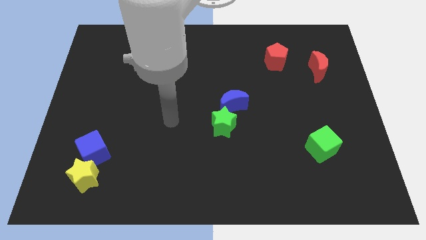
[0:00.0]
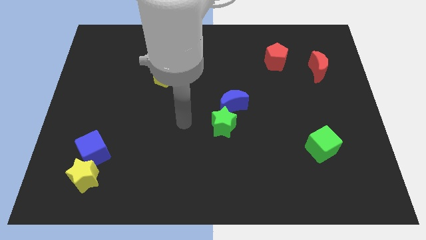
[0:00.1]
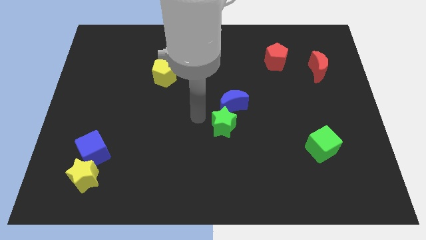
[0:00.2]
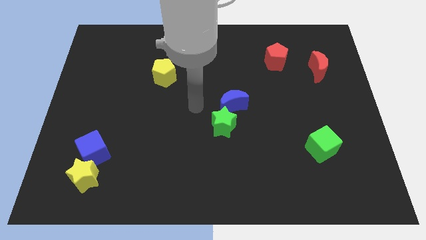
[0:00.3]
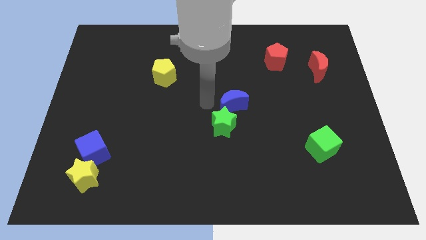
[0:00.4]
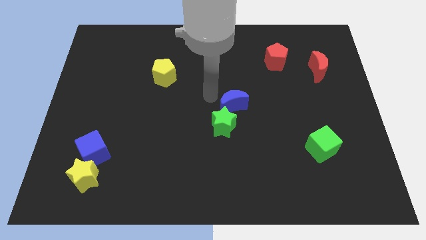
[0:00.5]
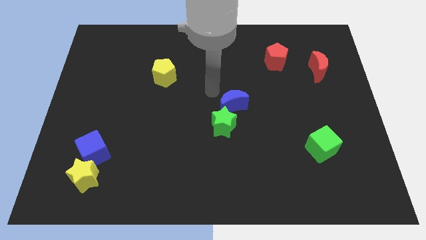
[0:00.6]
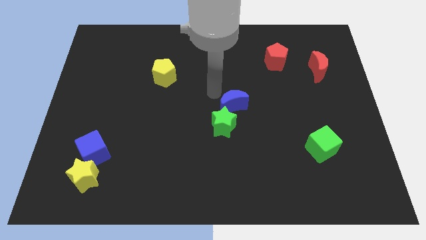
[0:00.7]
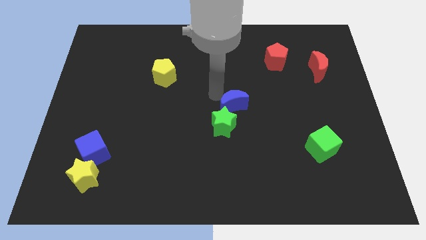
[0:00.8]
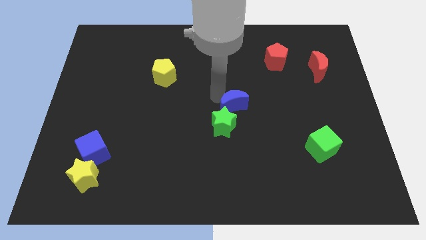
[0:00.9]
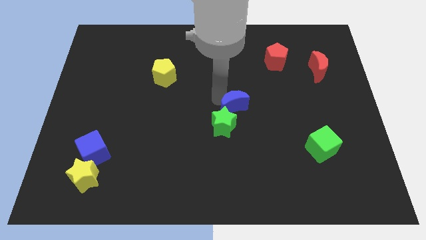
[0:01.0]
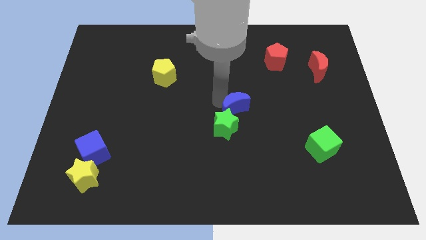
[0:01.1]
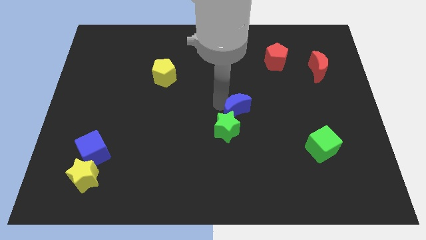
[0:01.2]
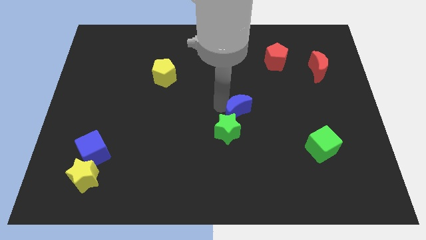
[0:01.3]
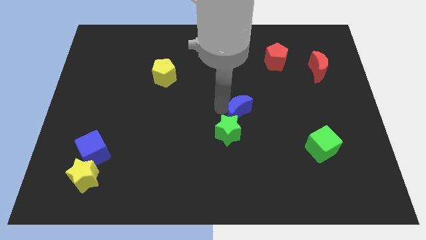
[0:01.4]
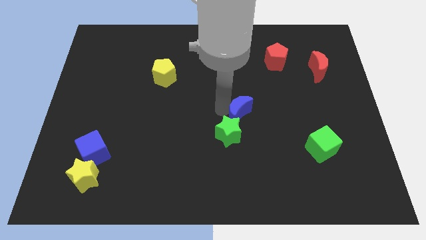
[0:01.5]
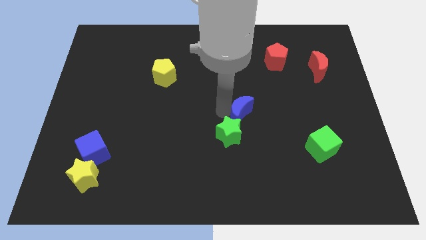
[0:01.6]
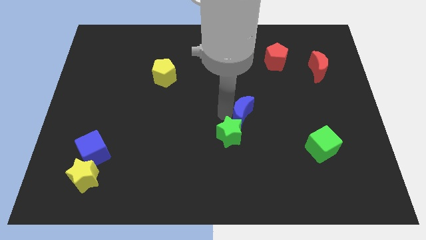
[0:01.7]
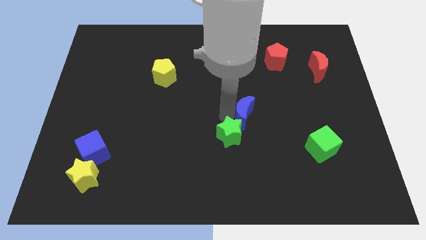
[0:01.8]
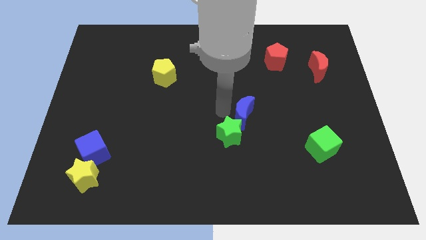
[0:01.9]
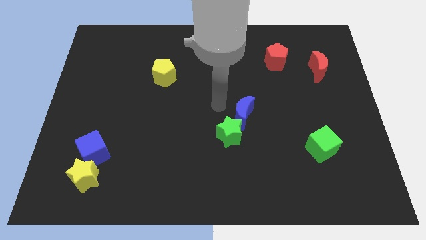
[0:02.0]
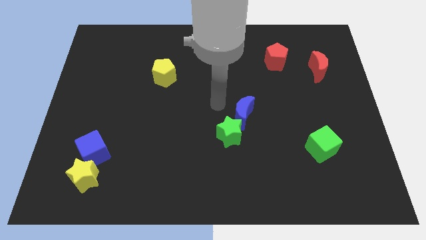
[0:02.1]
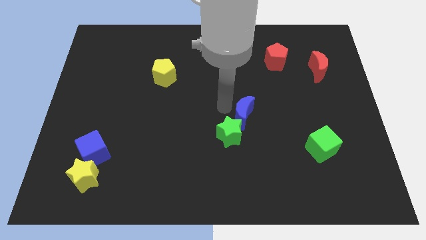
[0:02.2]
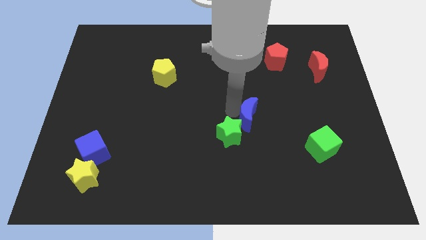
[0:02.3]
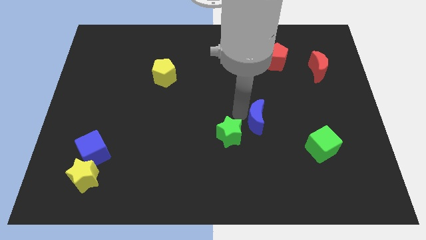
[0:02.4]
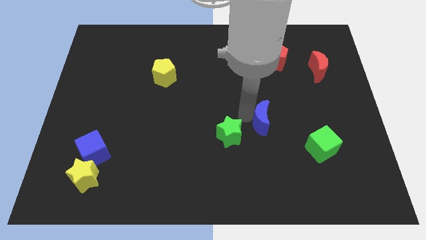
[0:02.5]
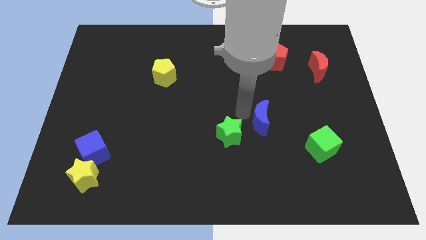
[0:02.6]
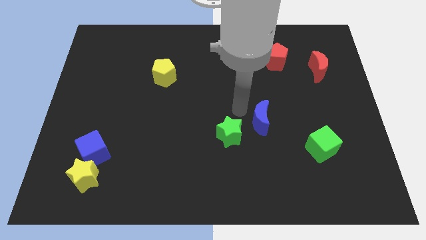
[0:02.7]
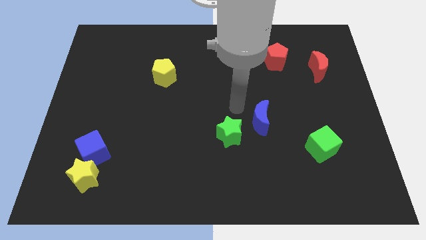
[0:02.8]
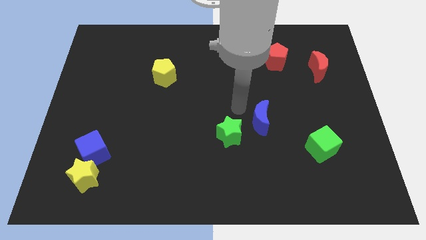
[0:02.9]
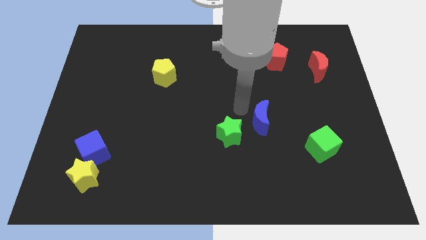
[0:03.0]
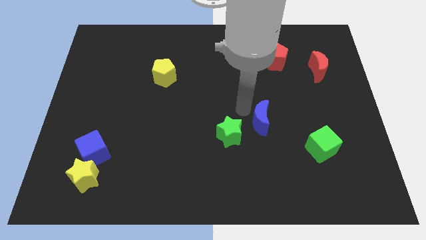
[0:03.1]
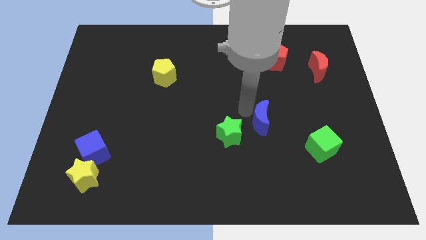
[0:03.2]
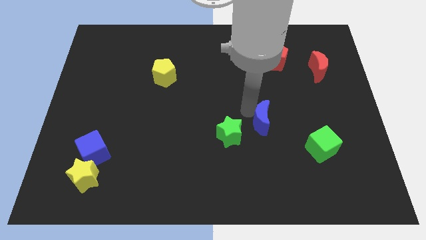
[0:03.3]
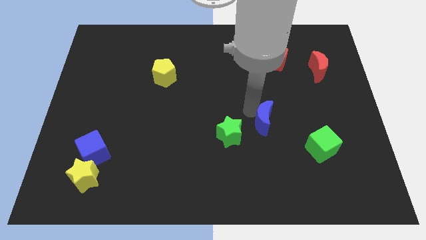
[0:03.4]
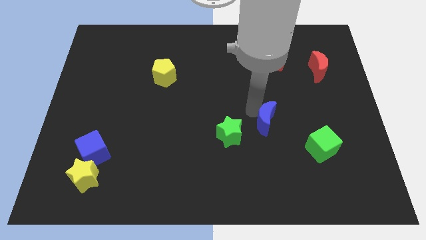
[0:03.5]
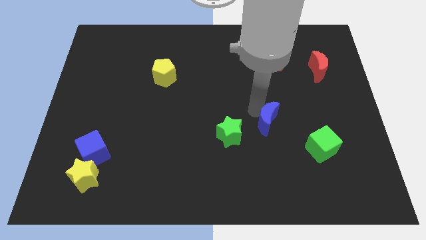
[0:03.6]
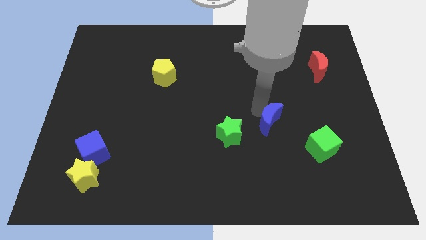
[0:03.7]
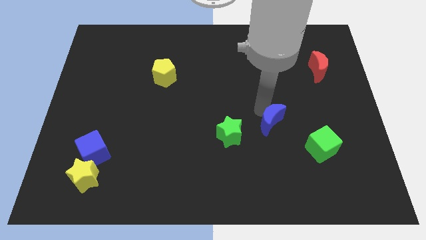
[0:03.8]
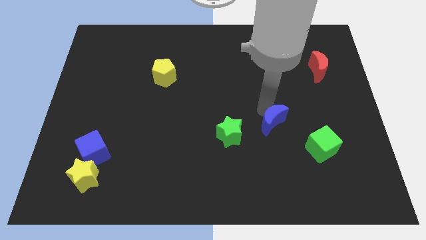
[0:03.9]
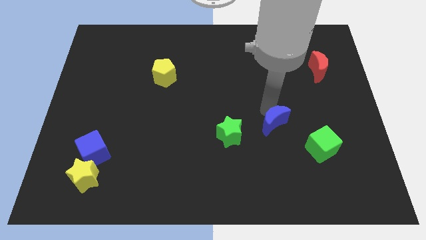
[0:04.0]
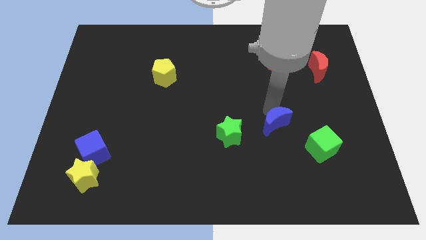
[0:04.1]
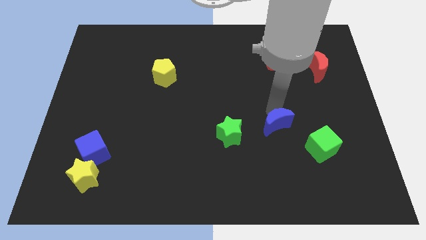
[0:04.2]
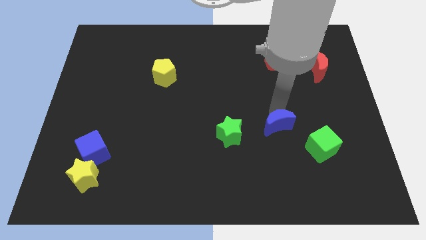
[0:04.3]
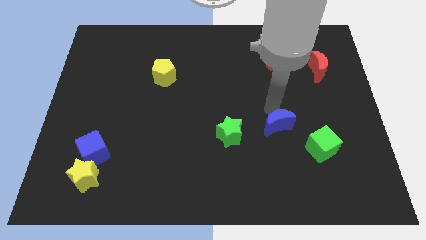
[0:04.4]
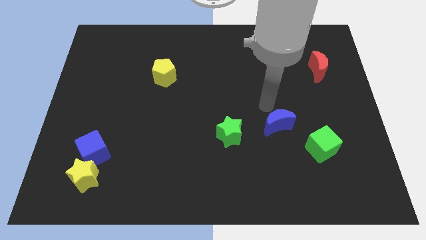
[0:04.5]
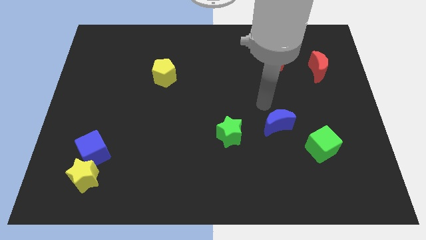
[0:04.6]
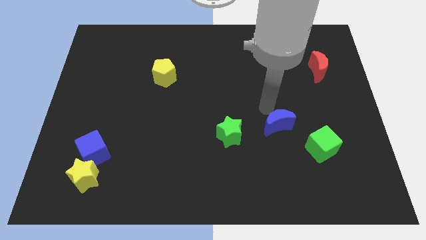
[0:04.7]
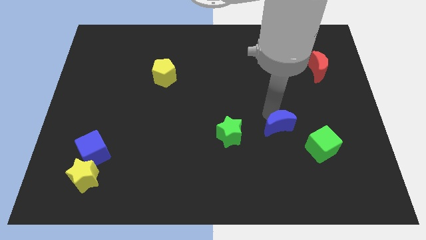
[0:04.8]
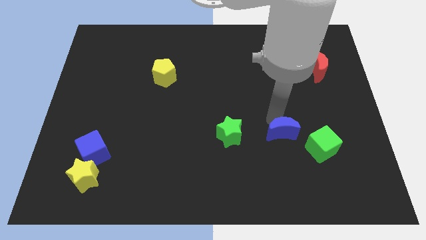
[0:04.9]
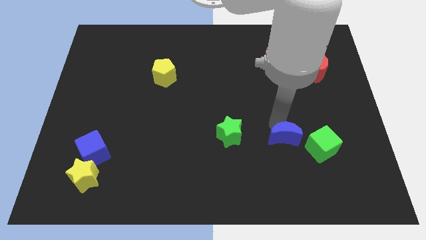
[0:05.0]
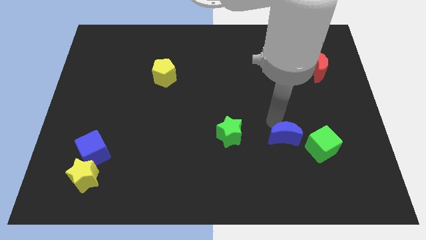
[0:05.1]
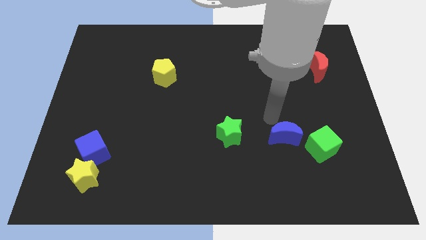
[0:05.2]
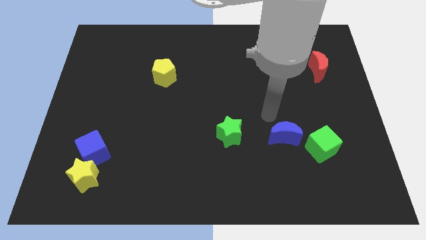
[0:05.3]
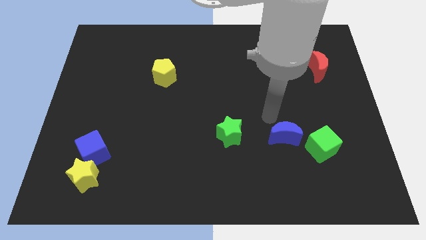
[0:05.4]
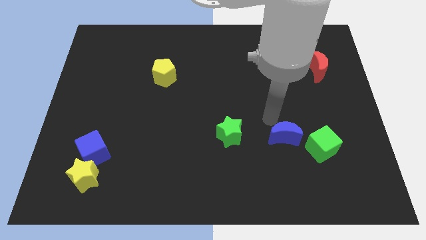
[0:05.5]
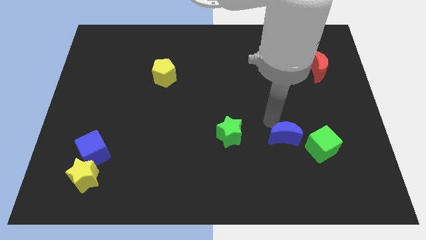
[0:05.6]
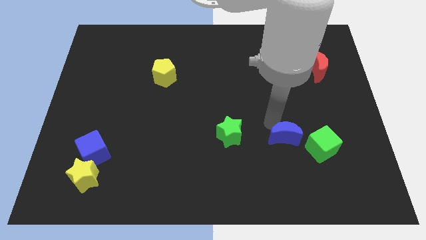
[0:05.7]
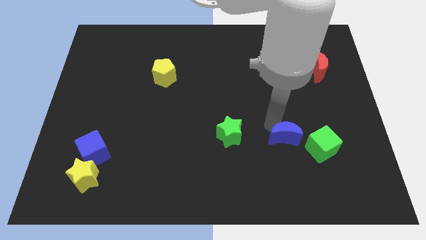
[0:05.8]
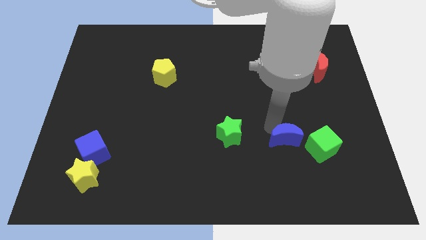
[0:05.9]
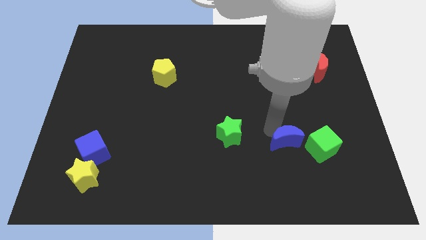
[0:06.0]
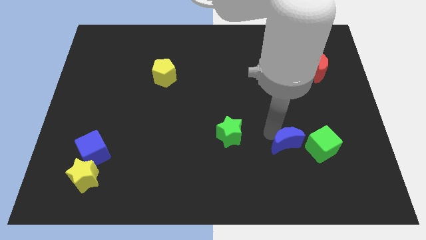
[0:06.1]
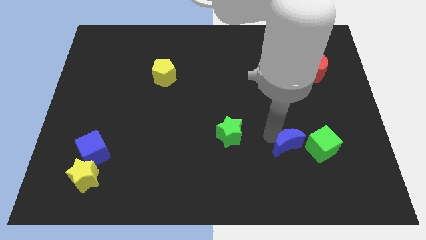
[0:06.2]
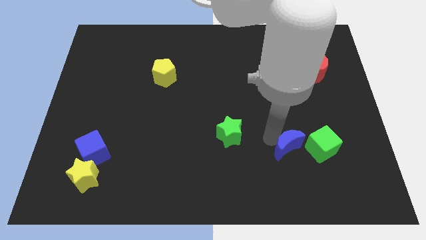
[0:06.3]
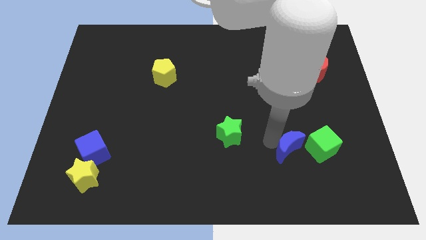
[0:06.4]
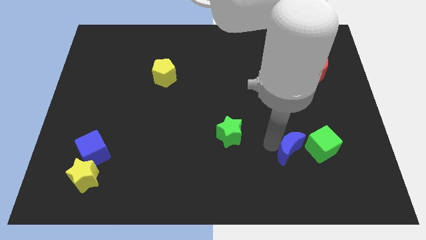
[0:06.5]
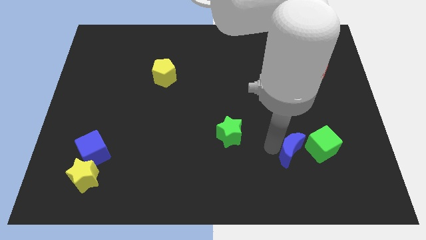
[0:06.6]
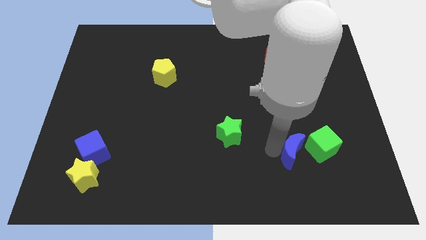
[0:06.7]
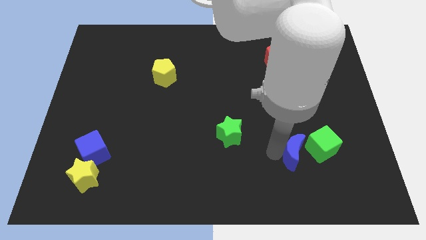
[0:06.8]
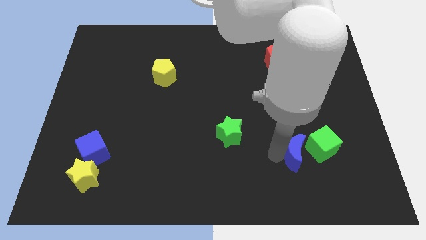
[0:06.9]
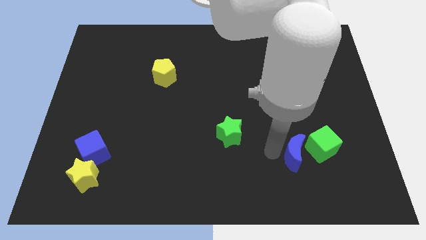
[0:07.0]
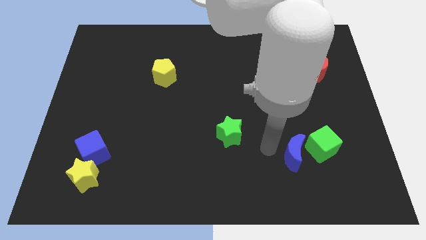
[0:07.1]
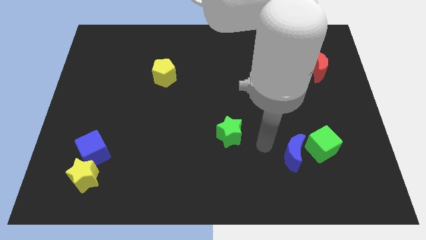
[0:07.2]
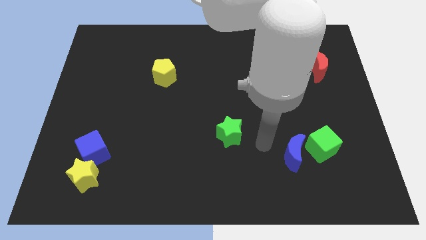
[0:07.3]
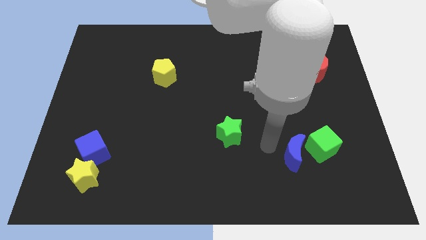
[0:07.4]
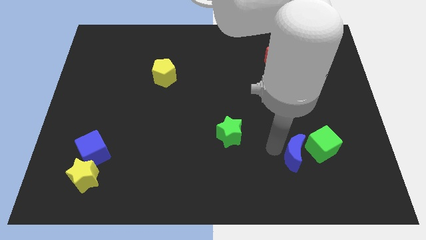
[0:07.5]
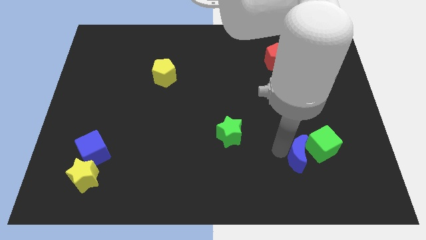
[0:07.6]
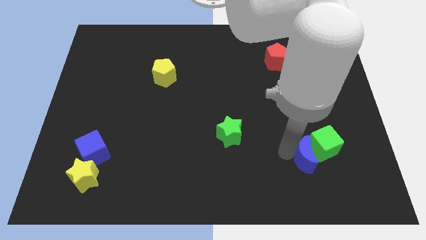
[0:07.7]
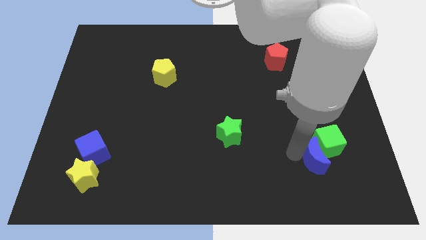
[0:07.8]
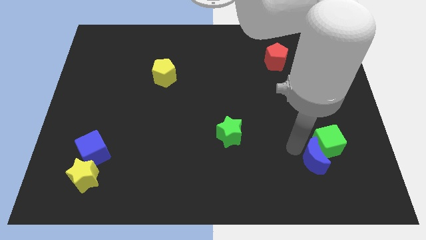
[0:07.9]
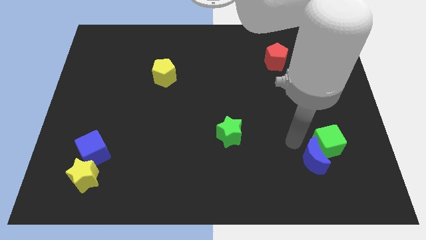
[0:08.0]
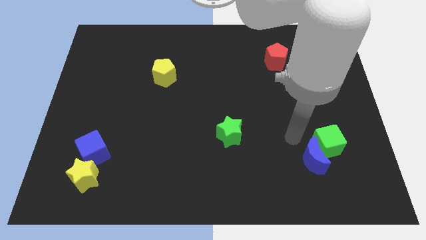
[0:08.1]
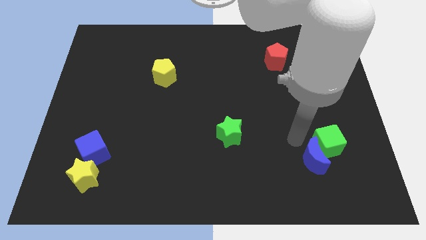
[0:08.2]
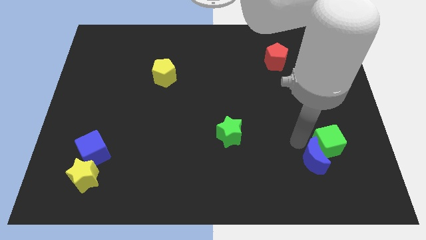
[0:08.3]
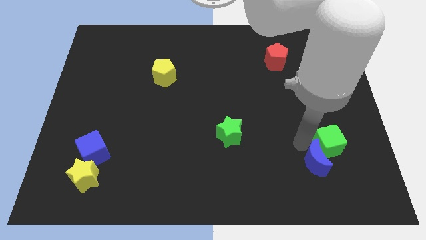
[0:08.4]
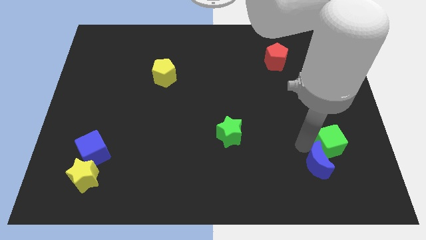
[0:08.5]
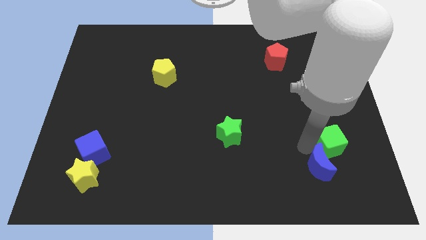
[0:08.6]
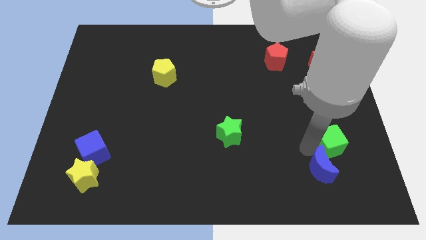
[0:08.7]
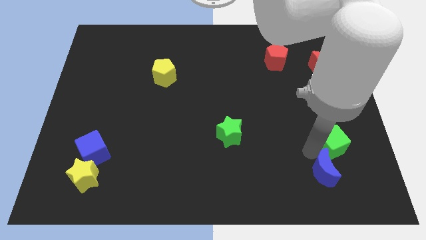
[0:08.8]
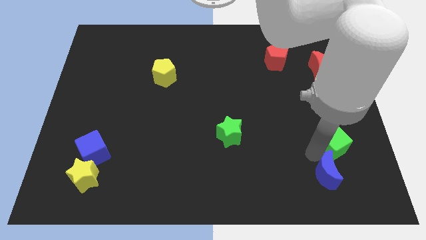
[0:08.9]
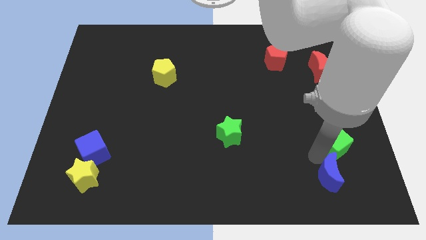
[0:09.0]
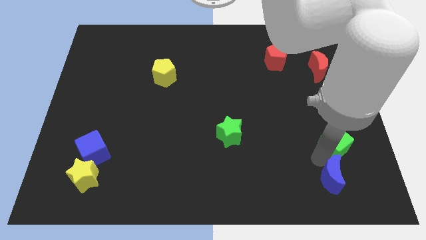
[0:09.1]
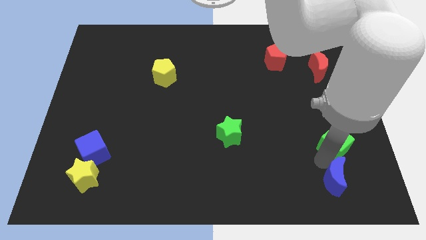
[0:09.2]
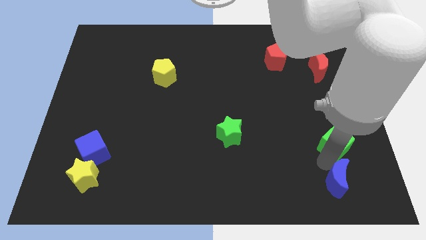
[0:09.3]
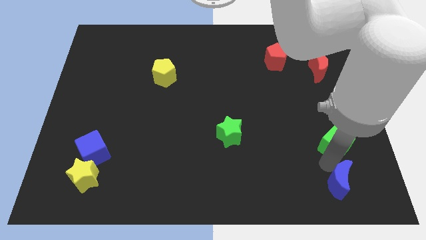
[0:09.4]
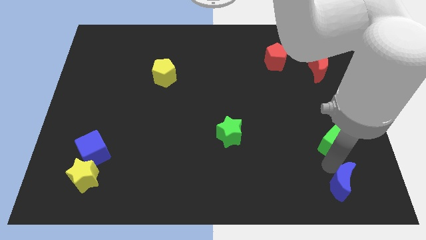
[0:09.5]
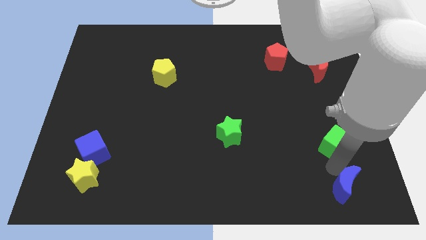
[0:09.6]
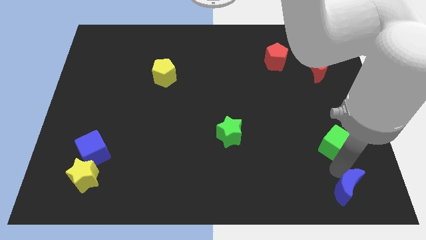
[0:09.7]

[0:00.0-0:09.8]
push the blue moon to the lower right corner
